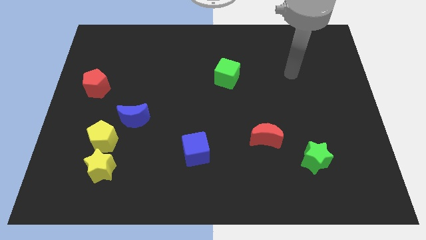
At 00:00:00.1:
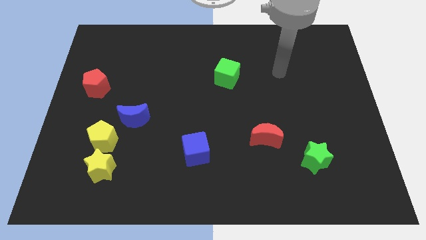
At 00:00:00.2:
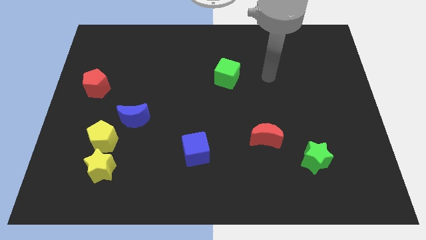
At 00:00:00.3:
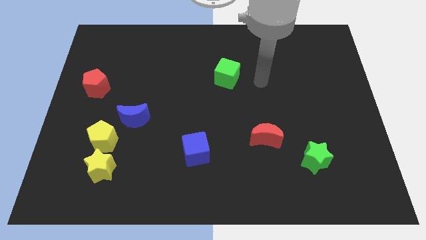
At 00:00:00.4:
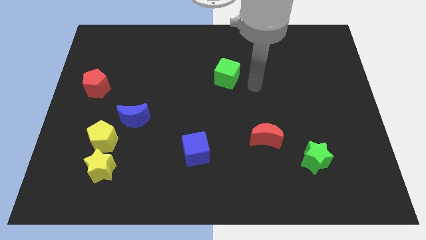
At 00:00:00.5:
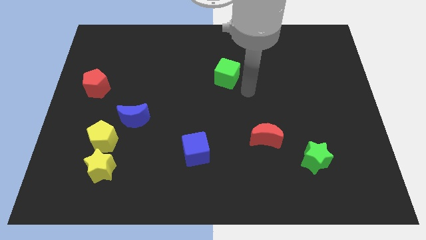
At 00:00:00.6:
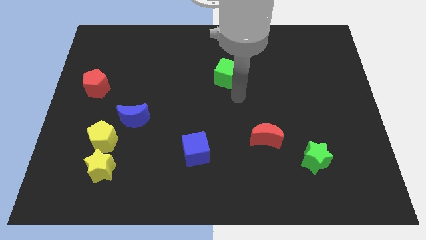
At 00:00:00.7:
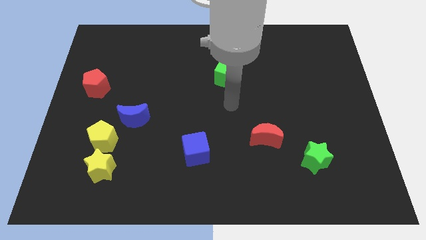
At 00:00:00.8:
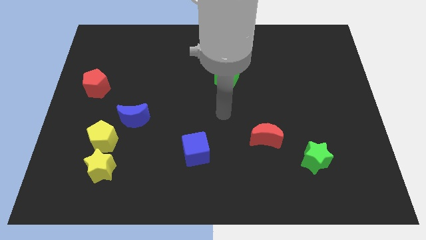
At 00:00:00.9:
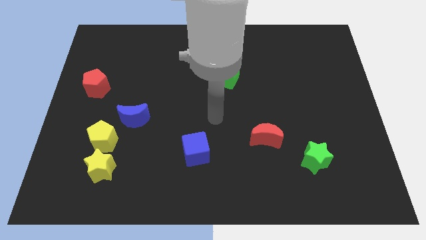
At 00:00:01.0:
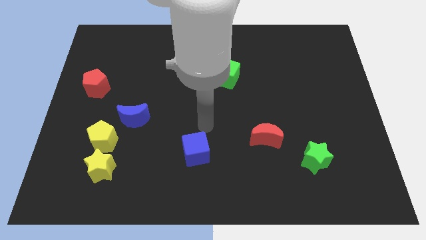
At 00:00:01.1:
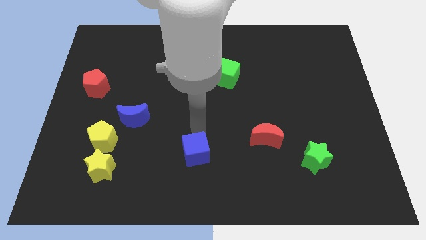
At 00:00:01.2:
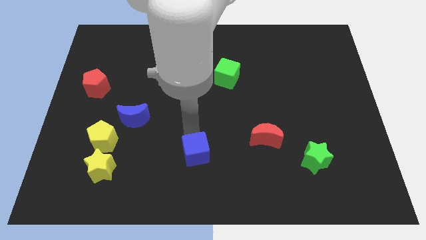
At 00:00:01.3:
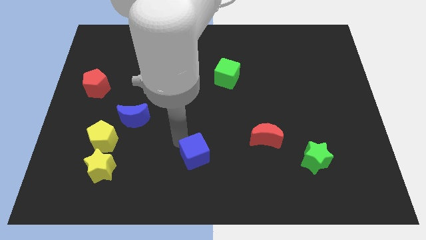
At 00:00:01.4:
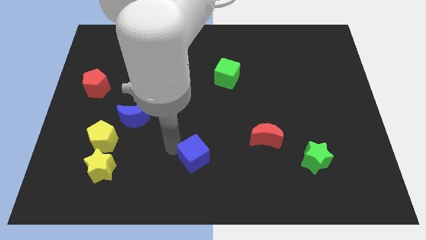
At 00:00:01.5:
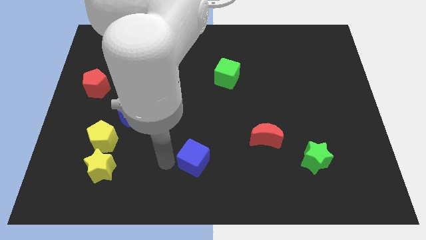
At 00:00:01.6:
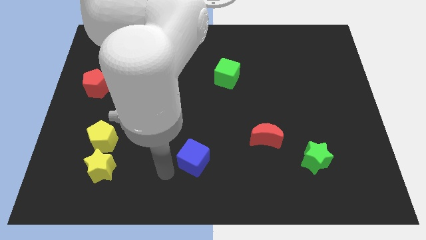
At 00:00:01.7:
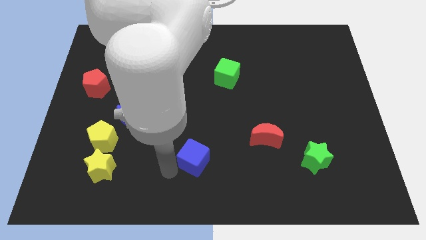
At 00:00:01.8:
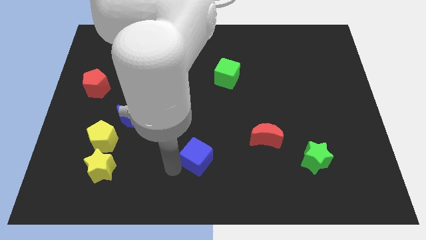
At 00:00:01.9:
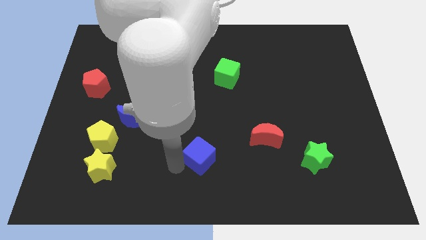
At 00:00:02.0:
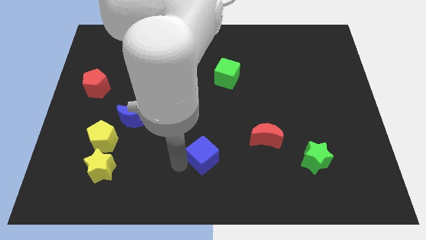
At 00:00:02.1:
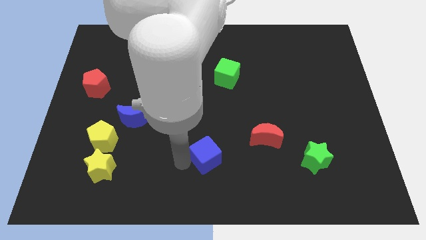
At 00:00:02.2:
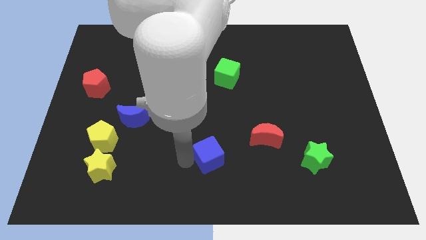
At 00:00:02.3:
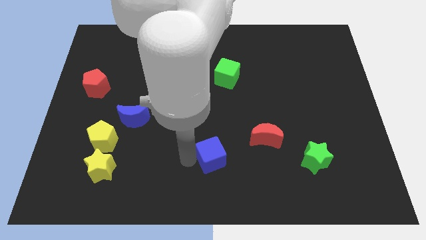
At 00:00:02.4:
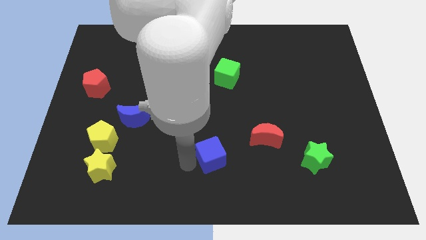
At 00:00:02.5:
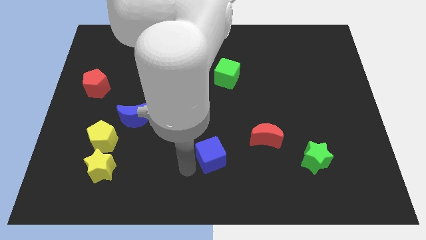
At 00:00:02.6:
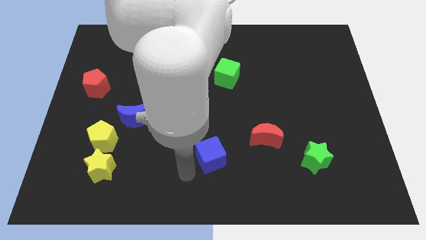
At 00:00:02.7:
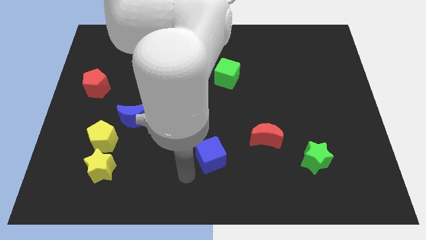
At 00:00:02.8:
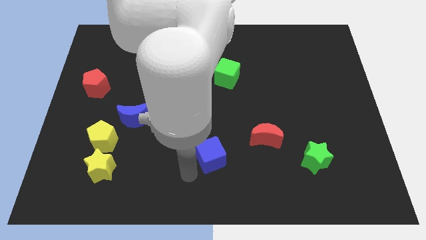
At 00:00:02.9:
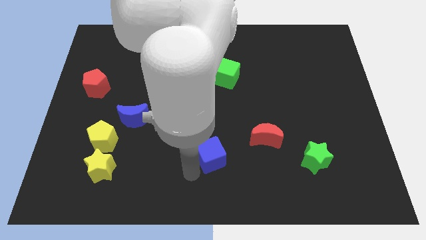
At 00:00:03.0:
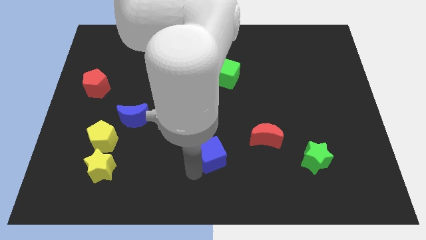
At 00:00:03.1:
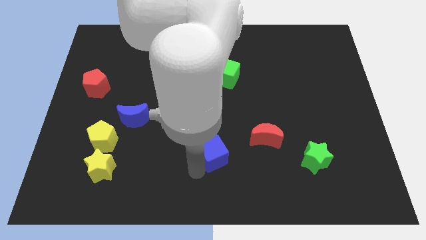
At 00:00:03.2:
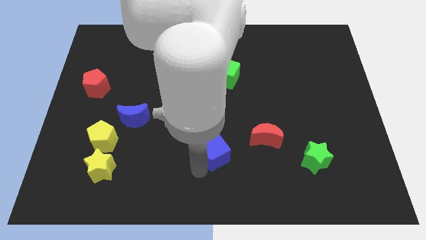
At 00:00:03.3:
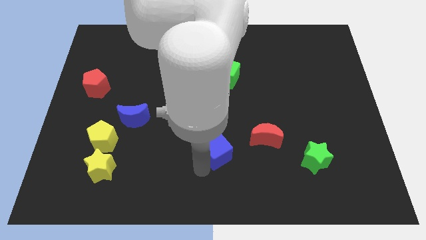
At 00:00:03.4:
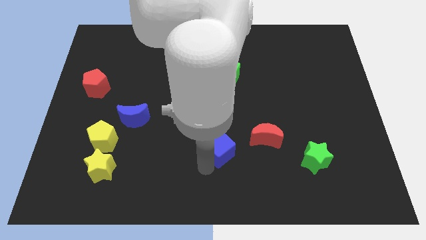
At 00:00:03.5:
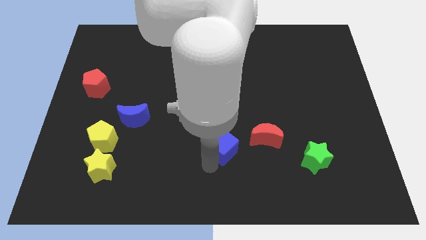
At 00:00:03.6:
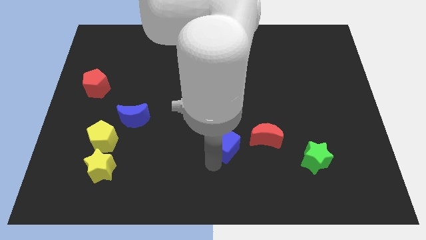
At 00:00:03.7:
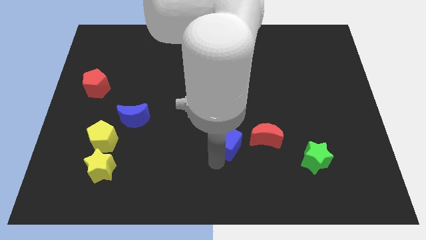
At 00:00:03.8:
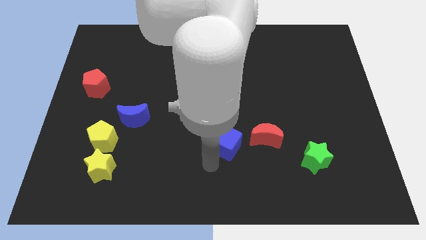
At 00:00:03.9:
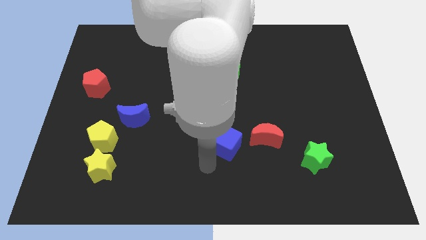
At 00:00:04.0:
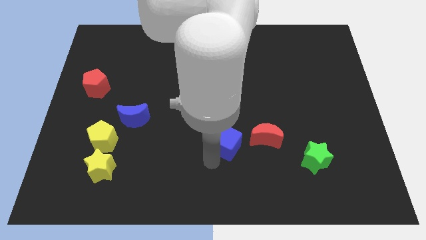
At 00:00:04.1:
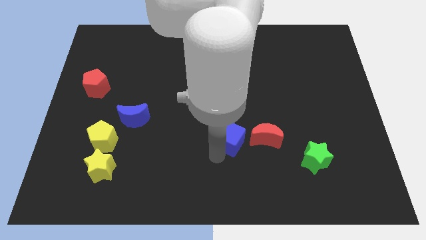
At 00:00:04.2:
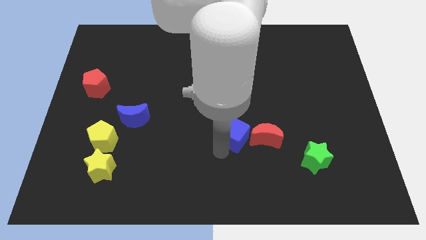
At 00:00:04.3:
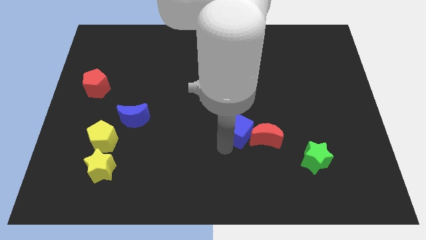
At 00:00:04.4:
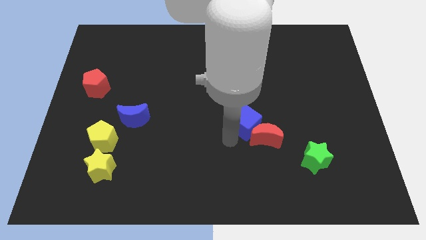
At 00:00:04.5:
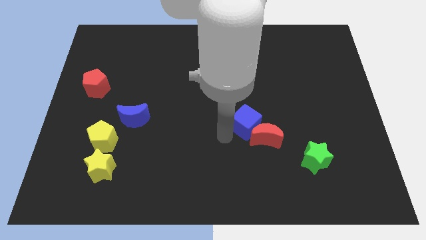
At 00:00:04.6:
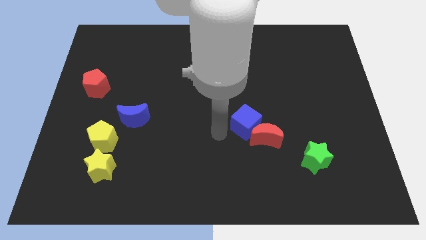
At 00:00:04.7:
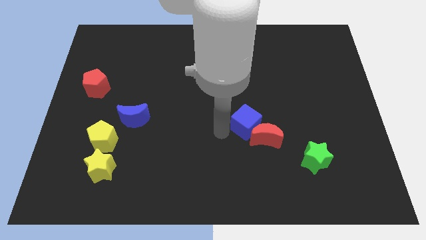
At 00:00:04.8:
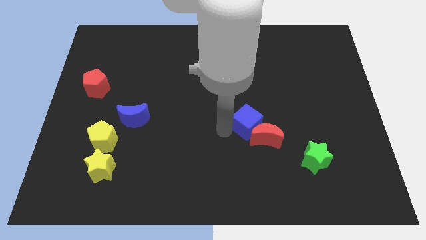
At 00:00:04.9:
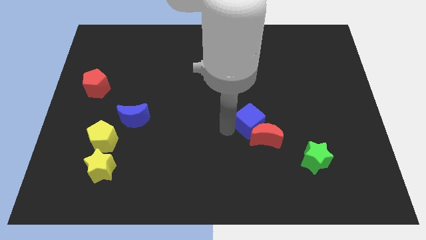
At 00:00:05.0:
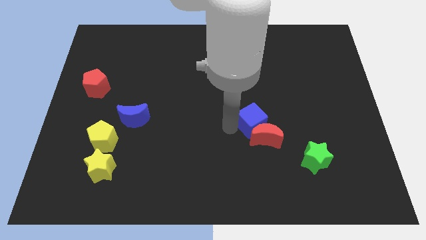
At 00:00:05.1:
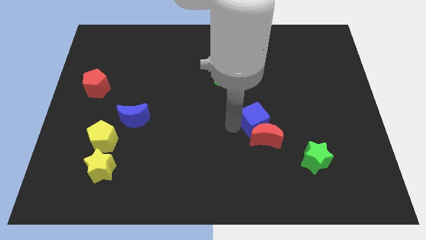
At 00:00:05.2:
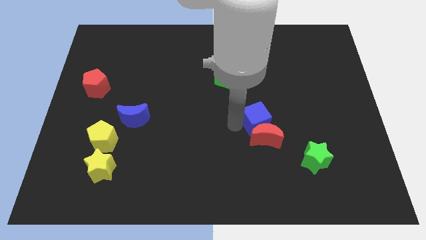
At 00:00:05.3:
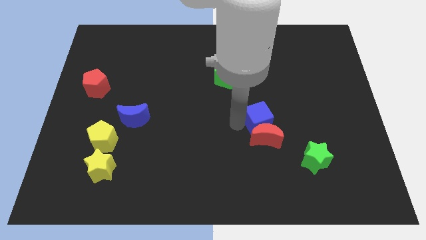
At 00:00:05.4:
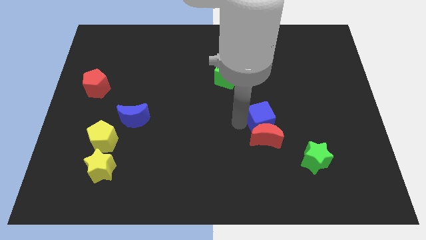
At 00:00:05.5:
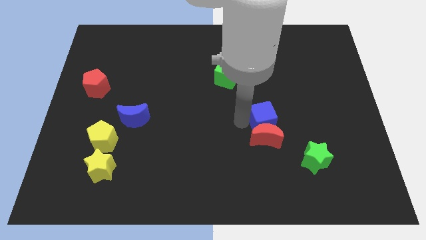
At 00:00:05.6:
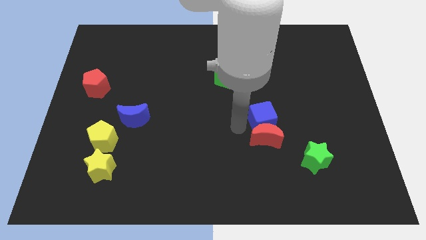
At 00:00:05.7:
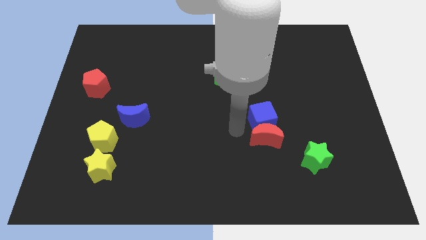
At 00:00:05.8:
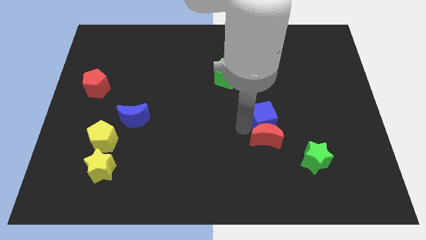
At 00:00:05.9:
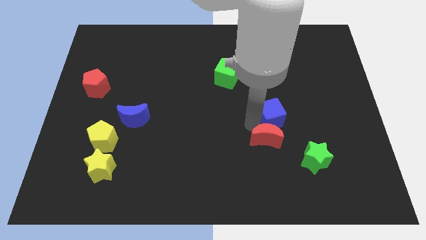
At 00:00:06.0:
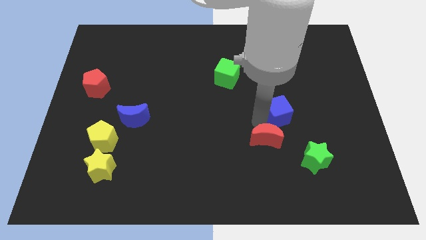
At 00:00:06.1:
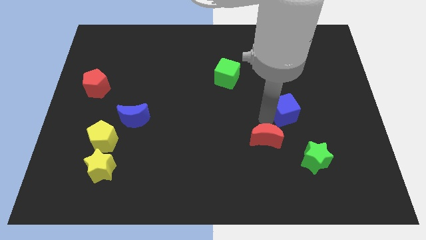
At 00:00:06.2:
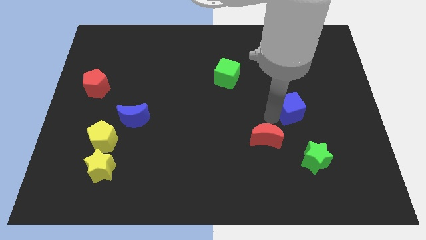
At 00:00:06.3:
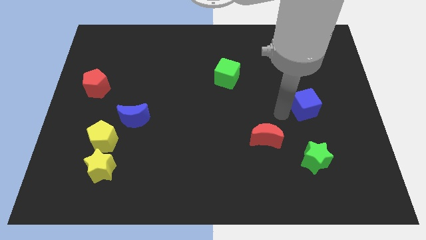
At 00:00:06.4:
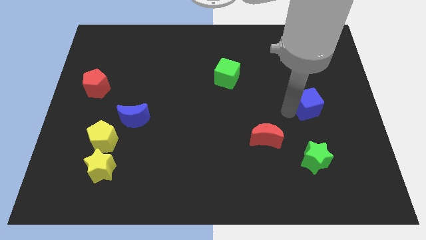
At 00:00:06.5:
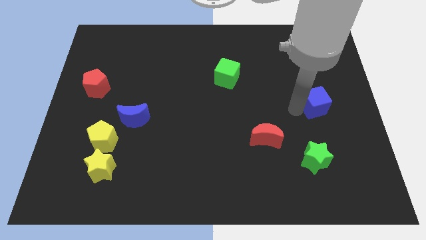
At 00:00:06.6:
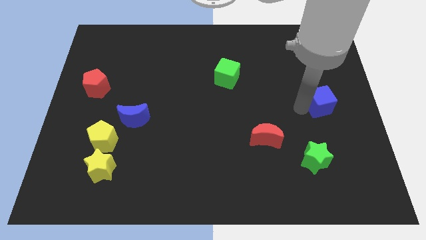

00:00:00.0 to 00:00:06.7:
slide the blue cube to the center right
